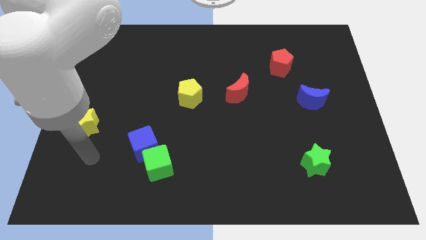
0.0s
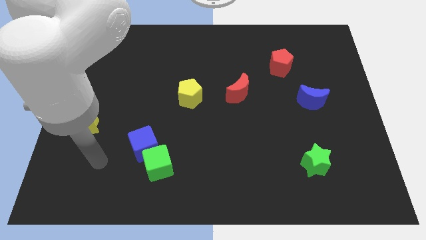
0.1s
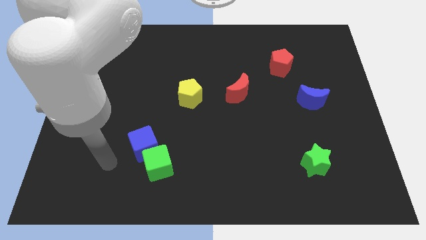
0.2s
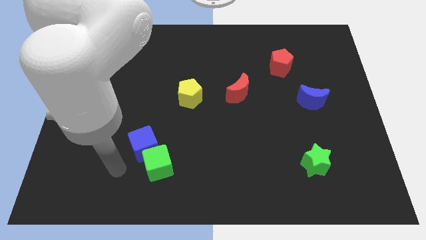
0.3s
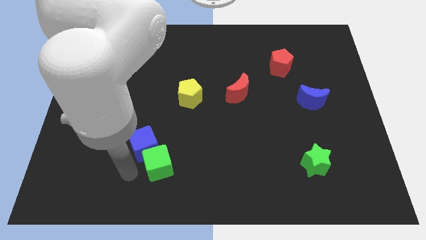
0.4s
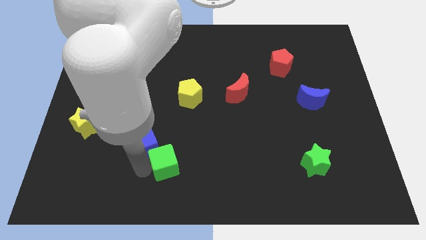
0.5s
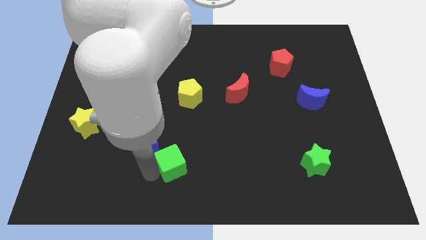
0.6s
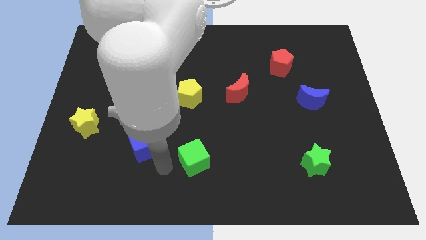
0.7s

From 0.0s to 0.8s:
pull the blue cube apart from the green cube

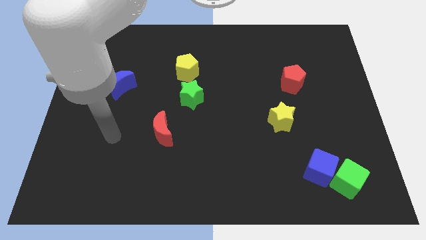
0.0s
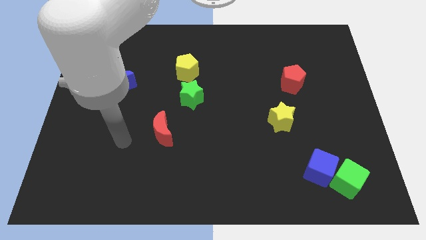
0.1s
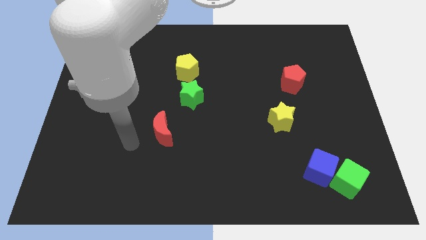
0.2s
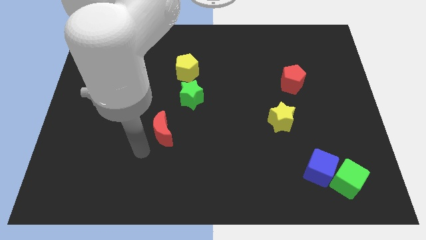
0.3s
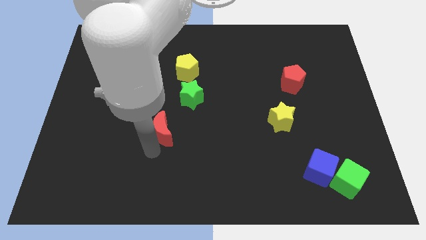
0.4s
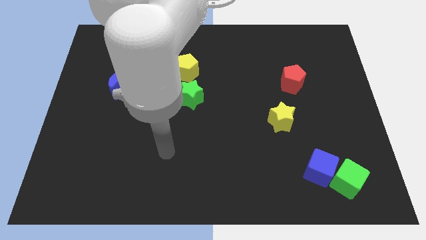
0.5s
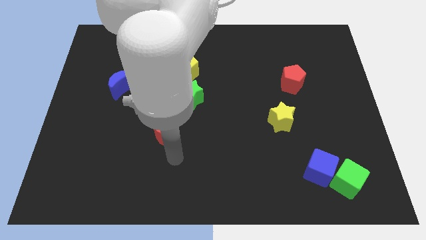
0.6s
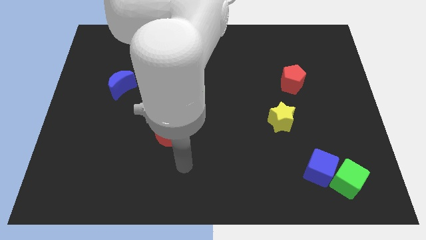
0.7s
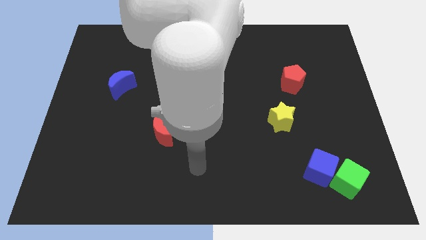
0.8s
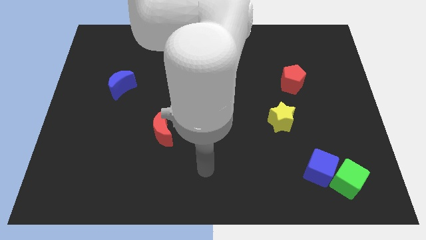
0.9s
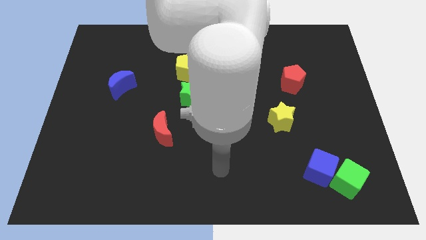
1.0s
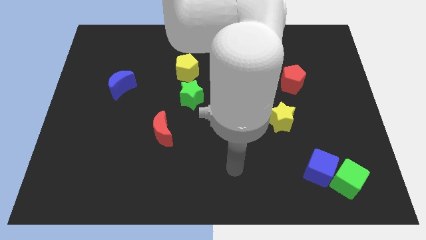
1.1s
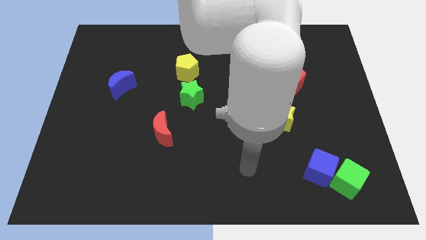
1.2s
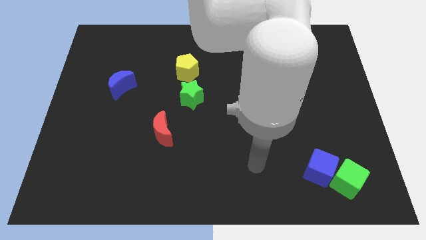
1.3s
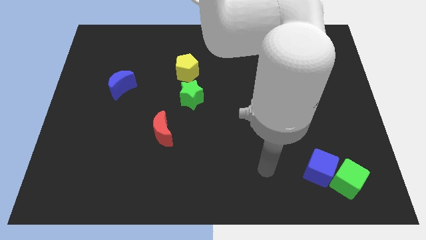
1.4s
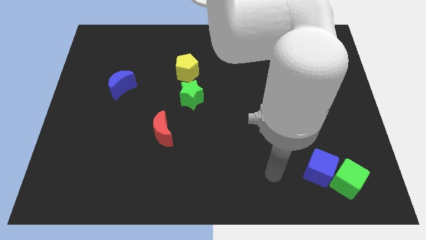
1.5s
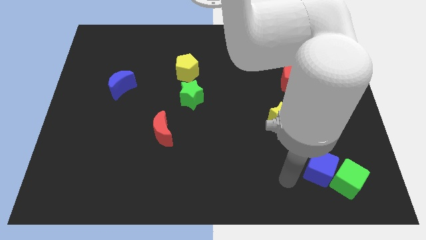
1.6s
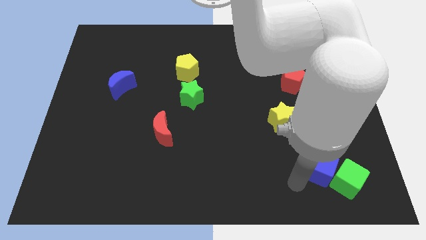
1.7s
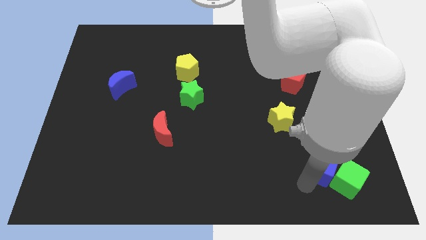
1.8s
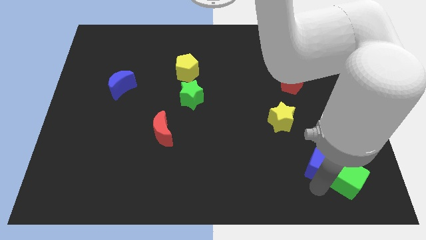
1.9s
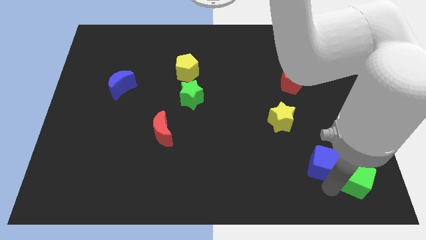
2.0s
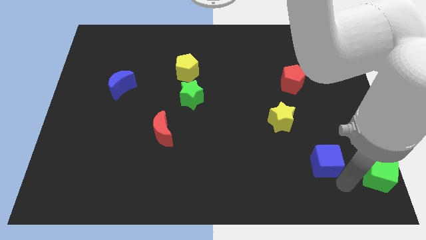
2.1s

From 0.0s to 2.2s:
move the blue cube away from the green cube

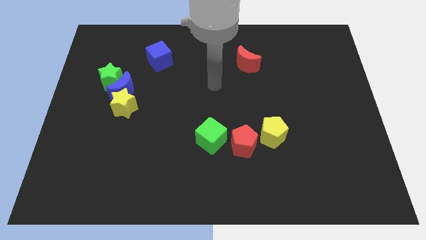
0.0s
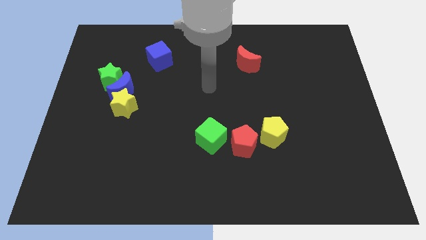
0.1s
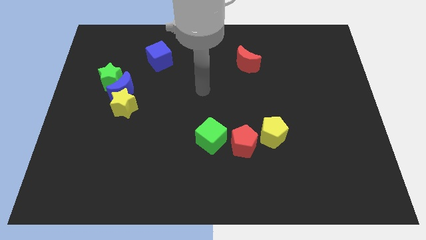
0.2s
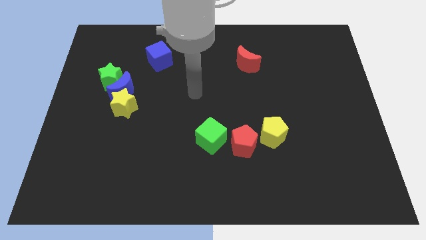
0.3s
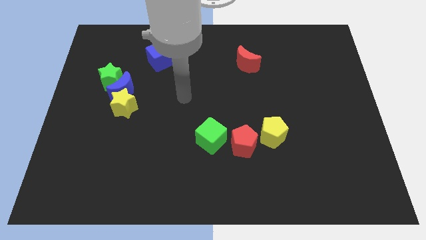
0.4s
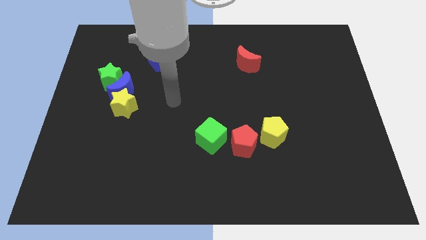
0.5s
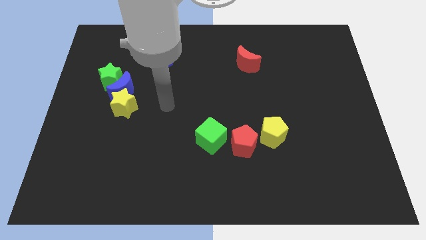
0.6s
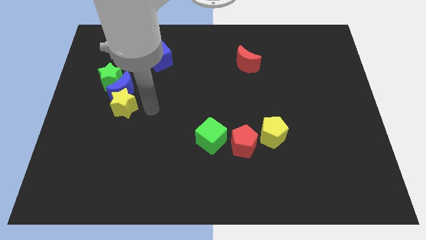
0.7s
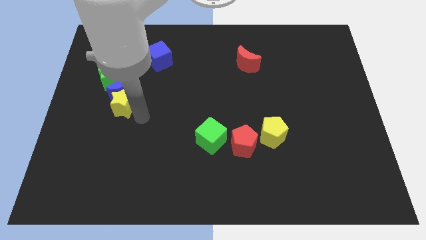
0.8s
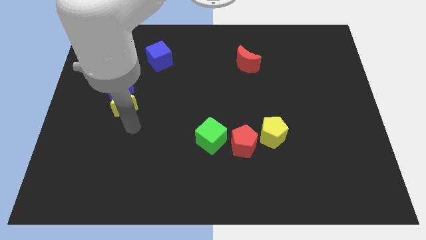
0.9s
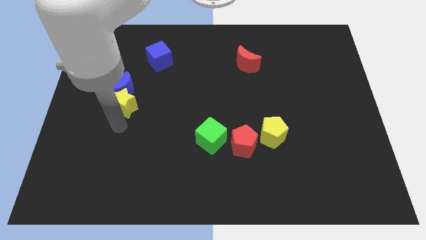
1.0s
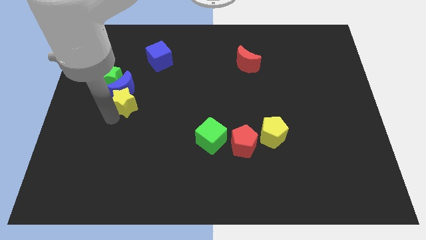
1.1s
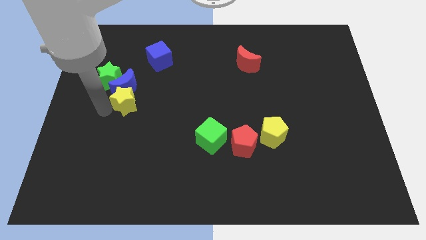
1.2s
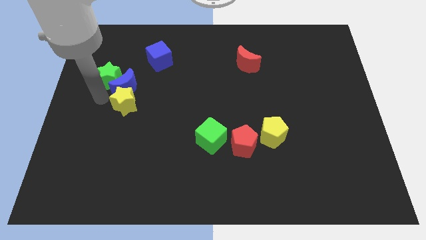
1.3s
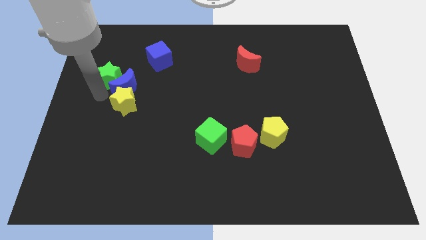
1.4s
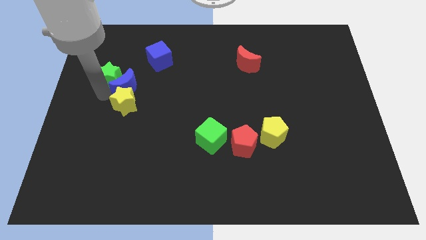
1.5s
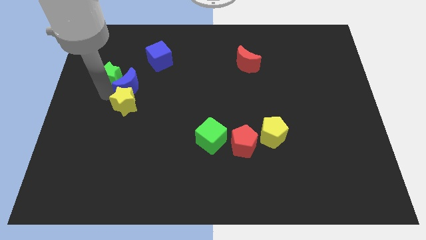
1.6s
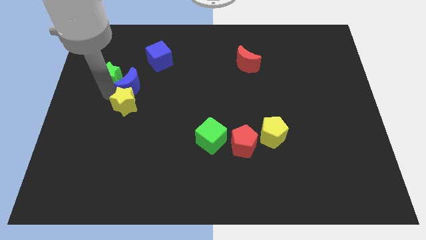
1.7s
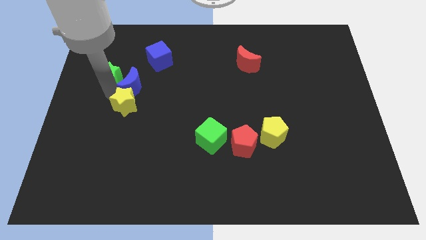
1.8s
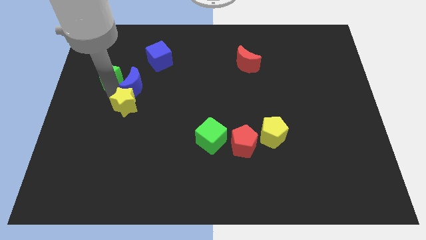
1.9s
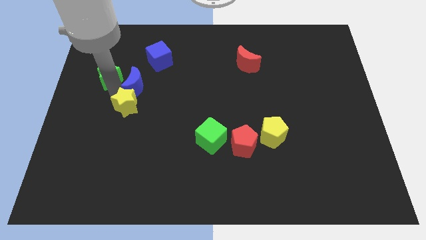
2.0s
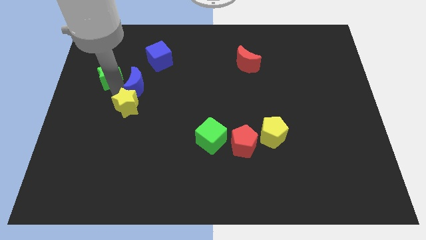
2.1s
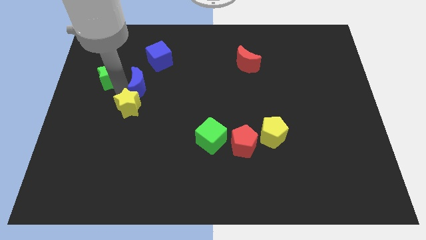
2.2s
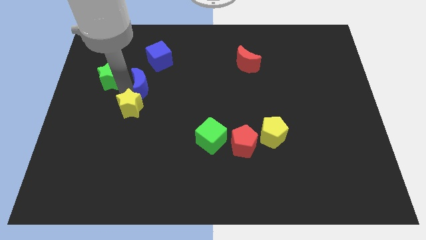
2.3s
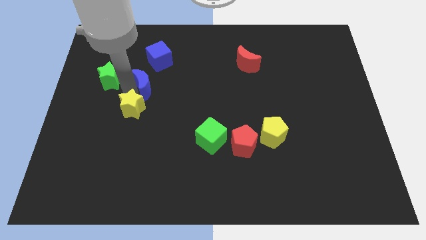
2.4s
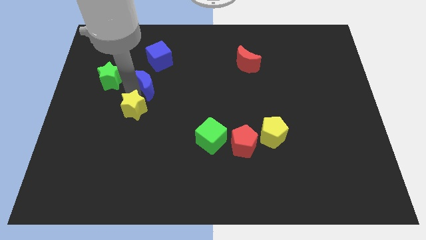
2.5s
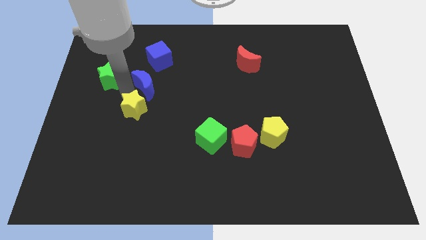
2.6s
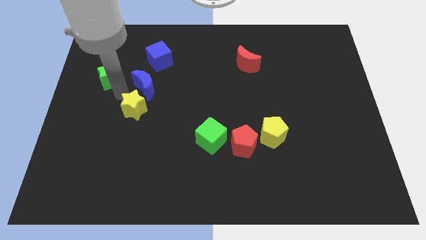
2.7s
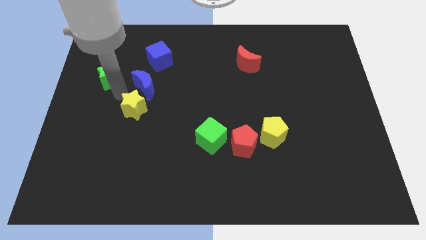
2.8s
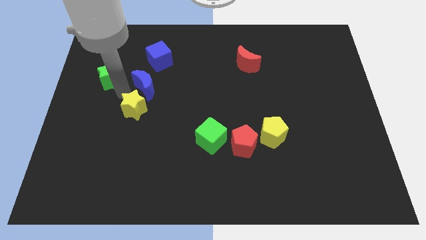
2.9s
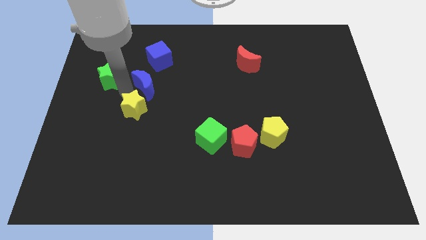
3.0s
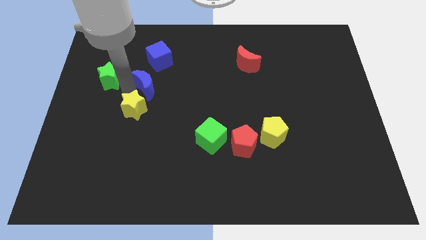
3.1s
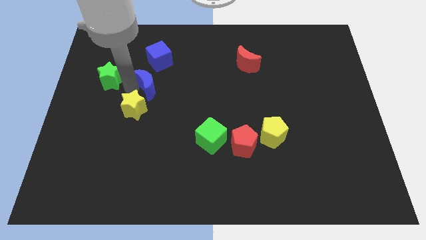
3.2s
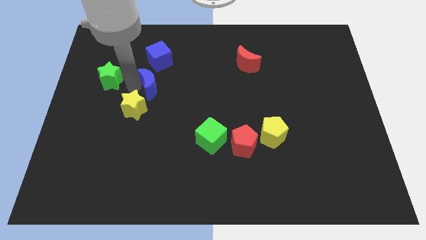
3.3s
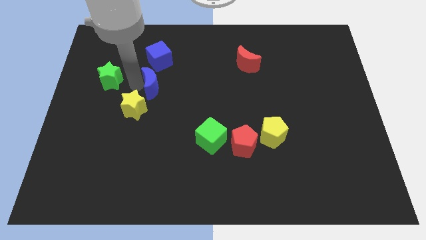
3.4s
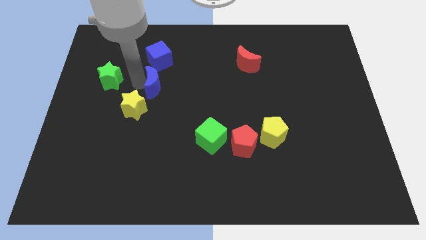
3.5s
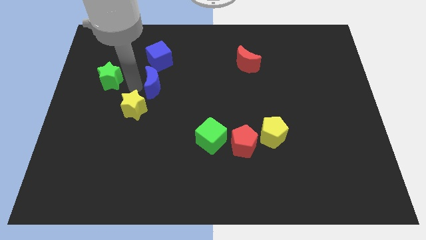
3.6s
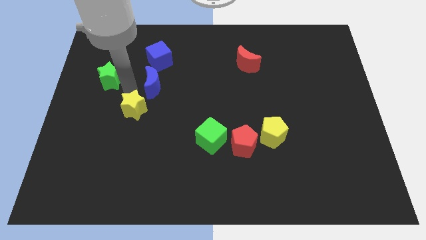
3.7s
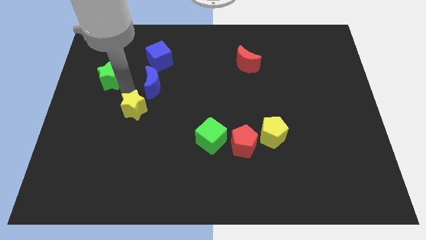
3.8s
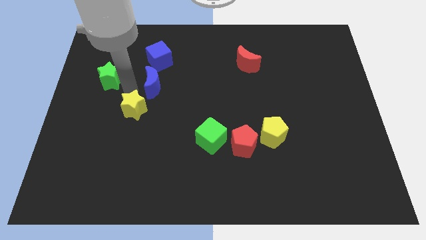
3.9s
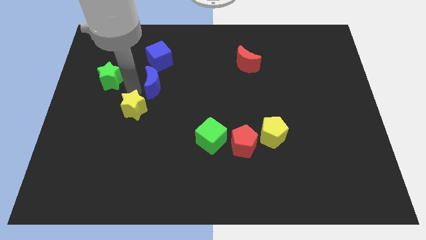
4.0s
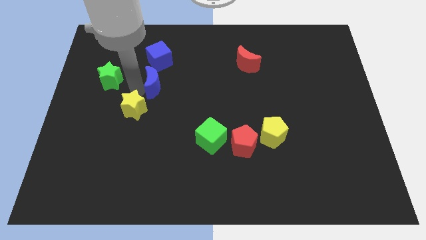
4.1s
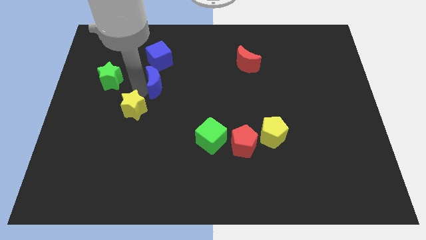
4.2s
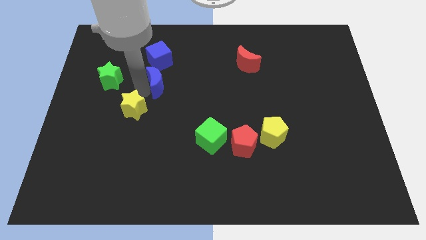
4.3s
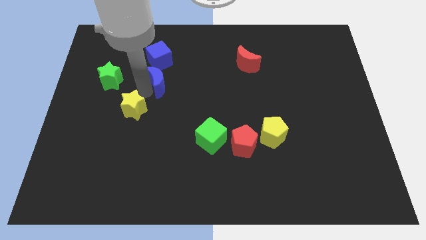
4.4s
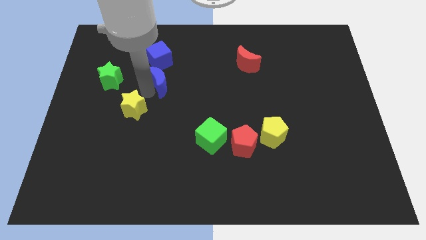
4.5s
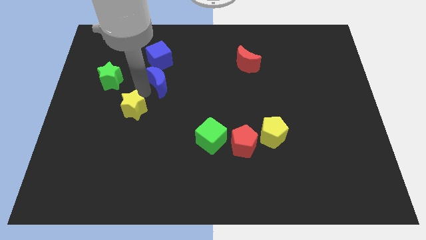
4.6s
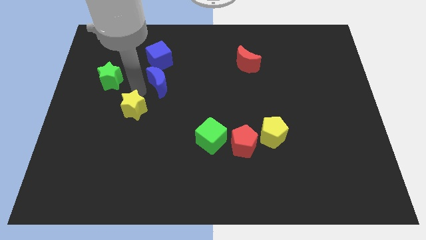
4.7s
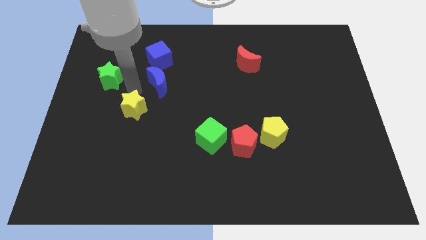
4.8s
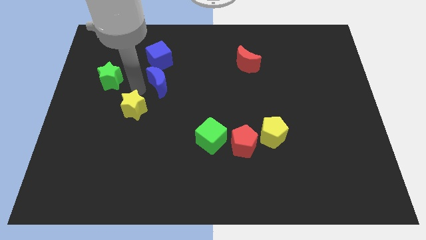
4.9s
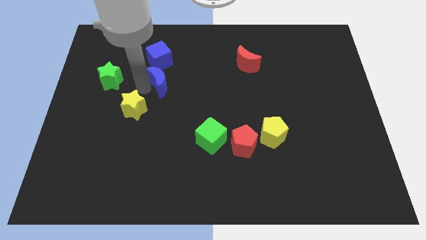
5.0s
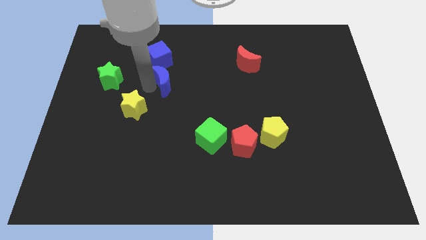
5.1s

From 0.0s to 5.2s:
separate the blue moon from the green star and yellow star

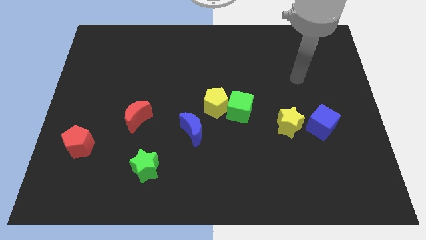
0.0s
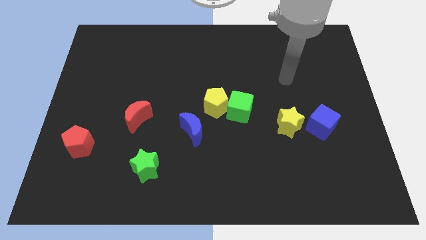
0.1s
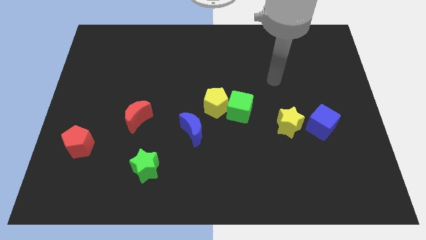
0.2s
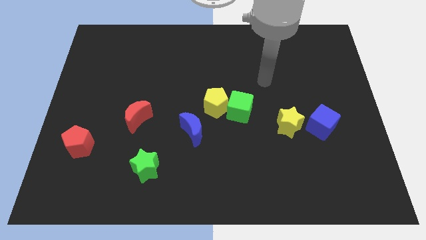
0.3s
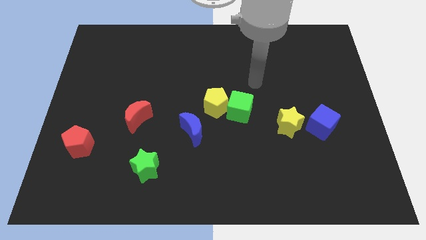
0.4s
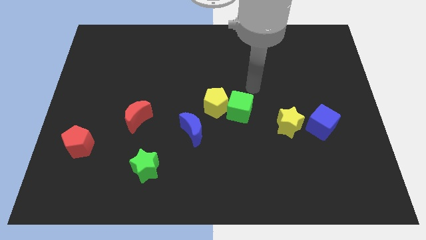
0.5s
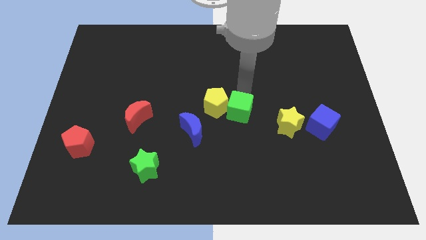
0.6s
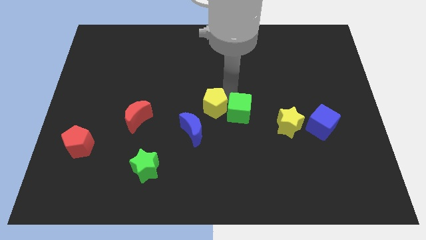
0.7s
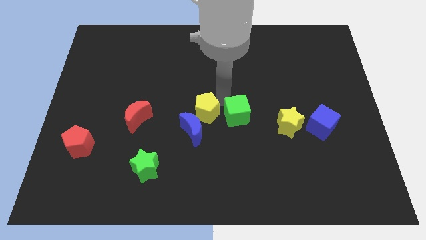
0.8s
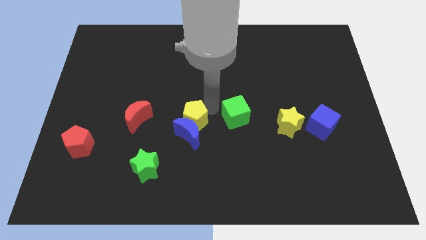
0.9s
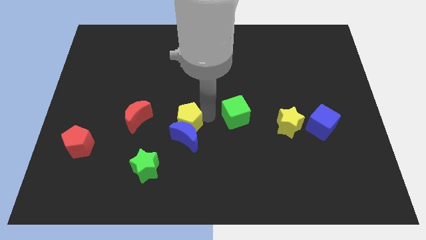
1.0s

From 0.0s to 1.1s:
pull the green cube apart from the yellow pentagon
